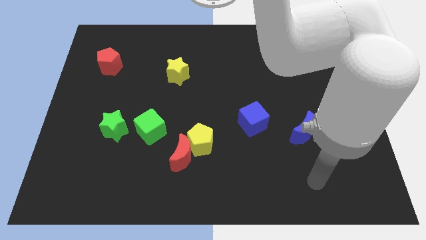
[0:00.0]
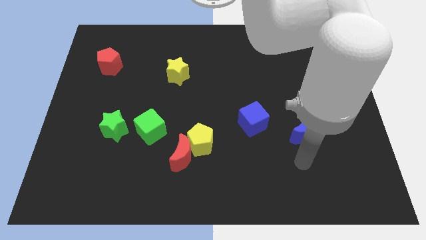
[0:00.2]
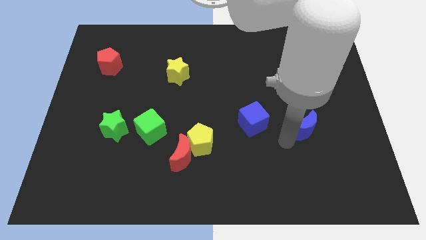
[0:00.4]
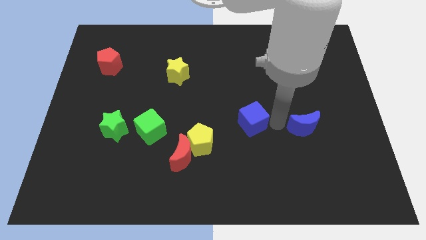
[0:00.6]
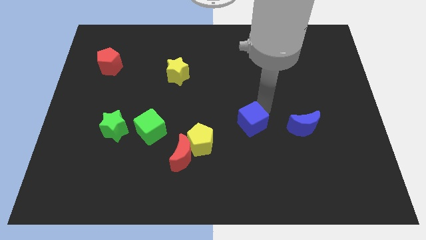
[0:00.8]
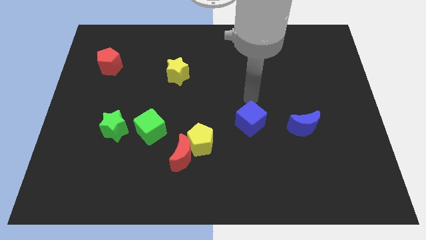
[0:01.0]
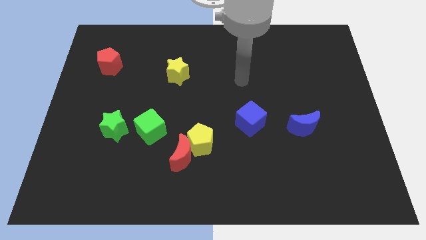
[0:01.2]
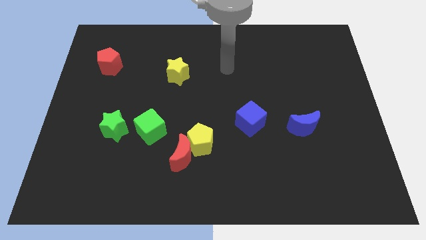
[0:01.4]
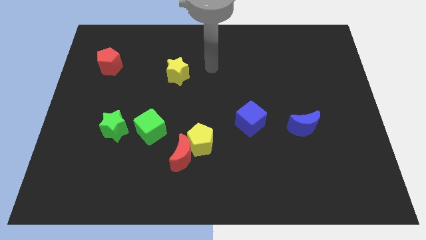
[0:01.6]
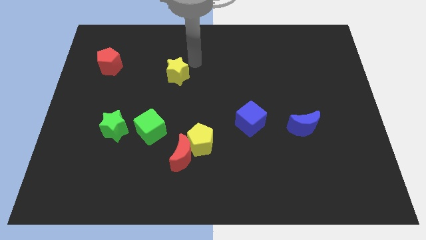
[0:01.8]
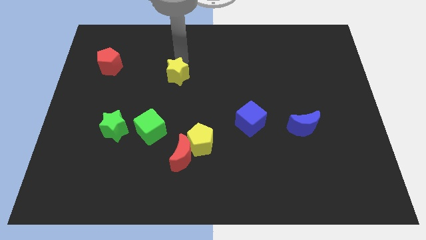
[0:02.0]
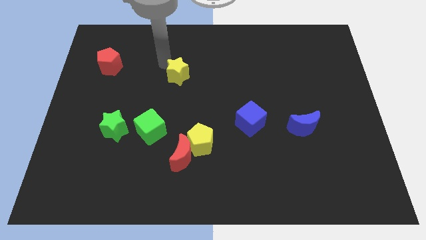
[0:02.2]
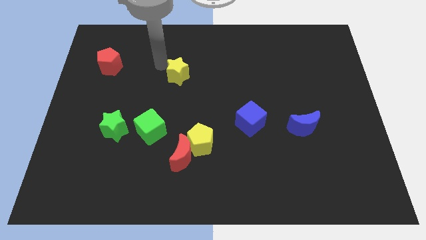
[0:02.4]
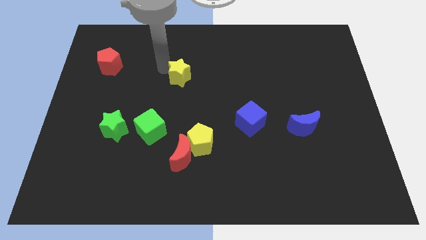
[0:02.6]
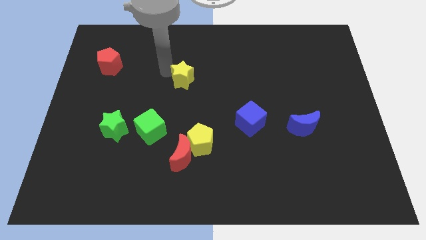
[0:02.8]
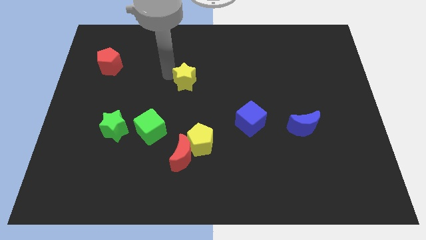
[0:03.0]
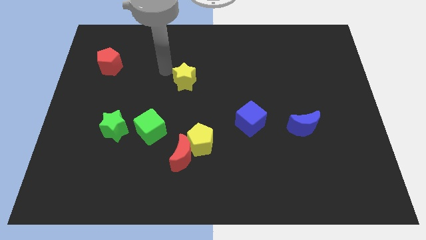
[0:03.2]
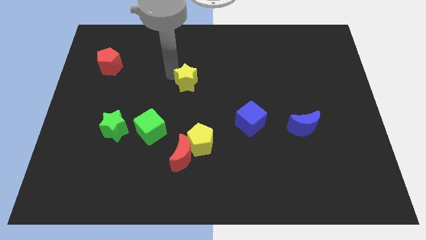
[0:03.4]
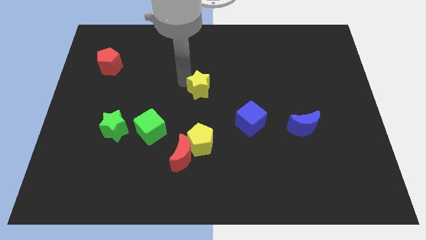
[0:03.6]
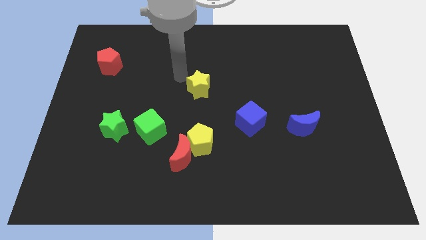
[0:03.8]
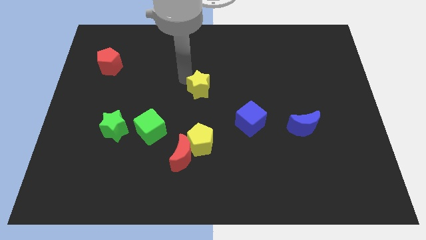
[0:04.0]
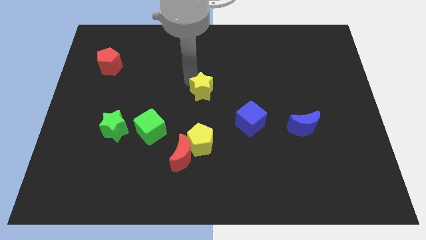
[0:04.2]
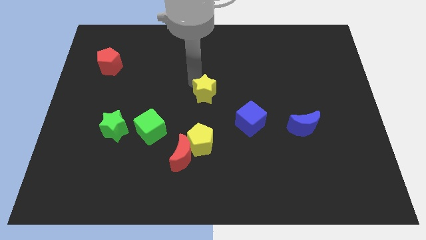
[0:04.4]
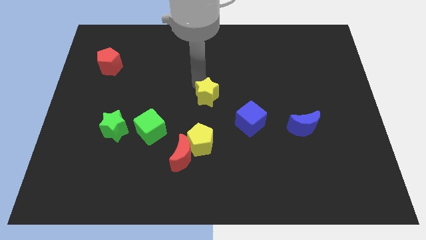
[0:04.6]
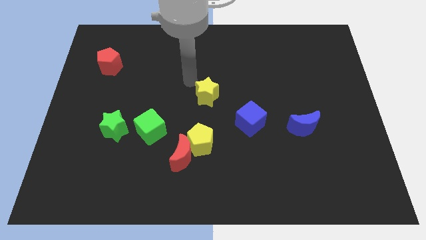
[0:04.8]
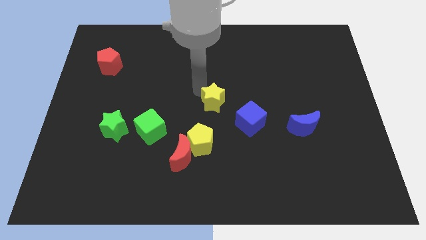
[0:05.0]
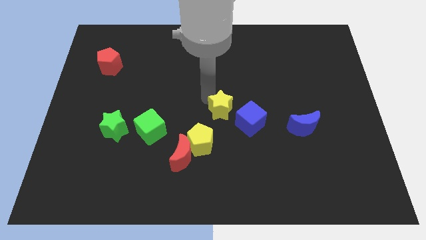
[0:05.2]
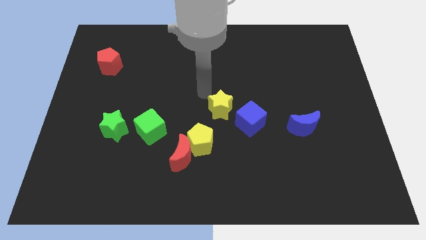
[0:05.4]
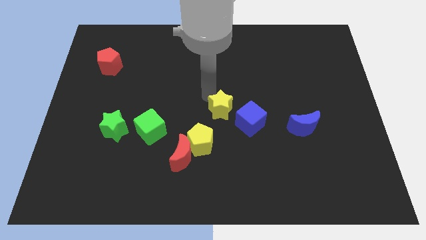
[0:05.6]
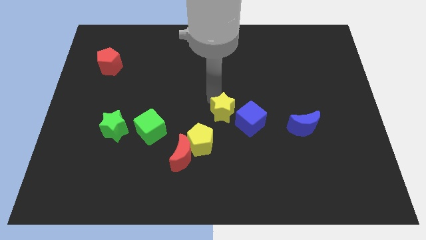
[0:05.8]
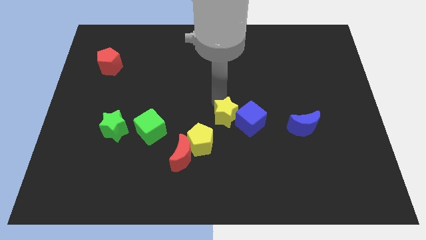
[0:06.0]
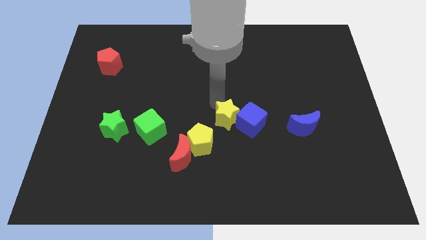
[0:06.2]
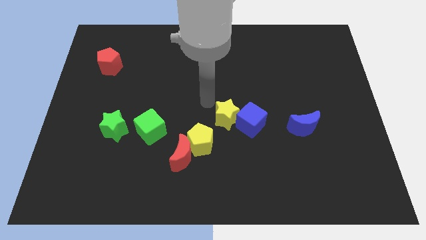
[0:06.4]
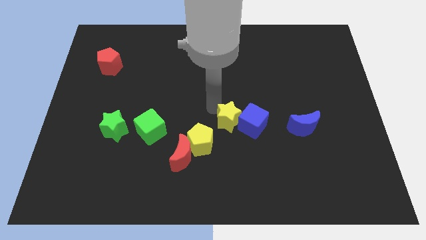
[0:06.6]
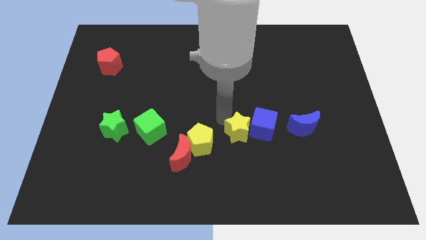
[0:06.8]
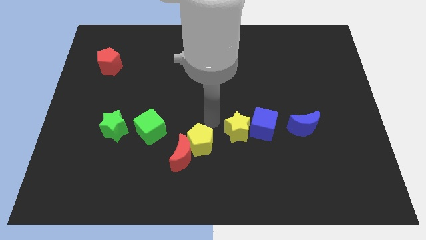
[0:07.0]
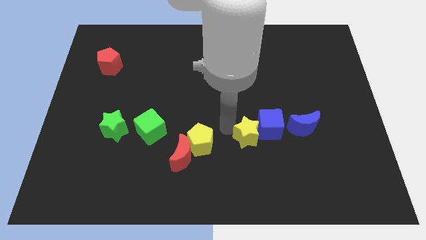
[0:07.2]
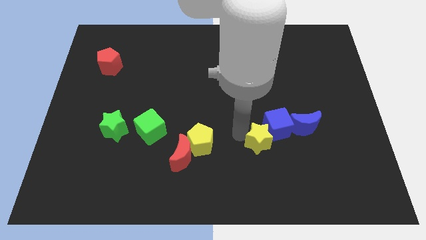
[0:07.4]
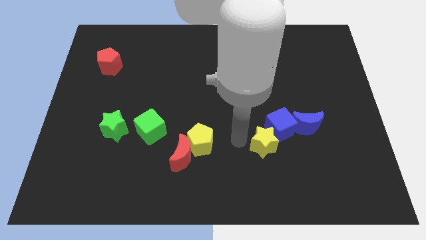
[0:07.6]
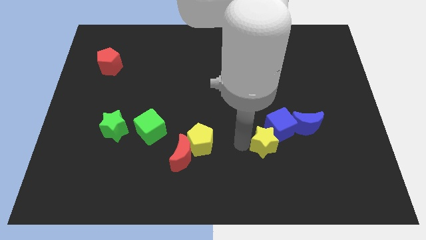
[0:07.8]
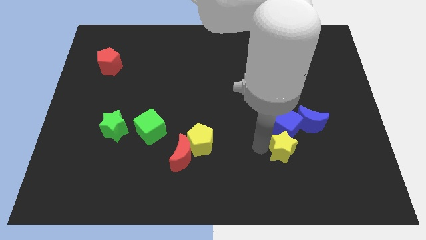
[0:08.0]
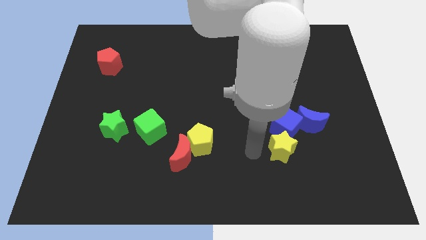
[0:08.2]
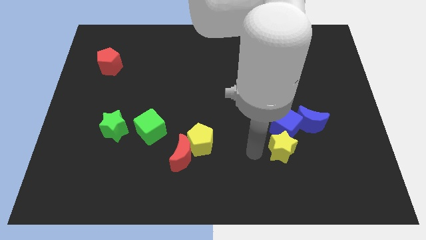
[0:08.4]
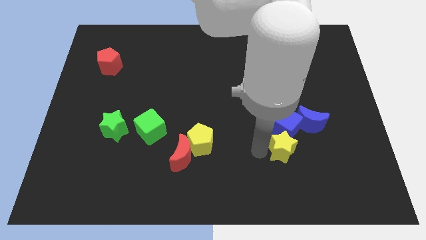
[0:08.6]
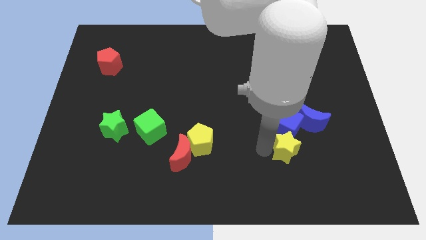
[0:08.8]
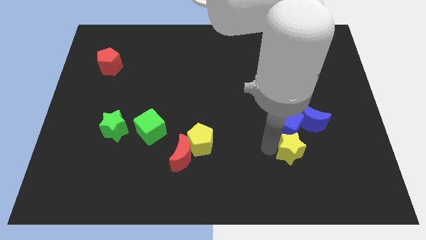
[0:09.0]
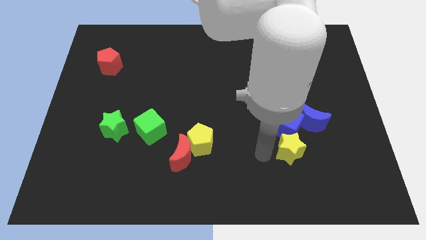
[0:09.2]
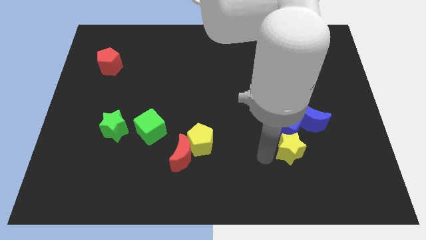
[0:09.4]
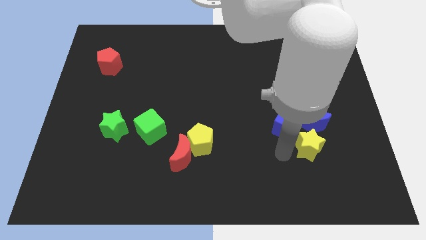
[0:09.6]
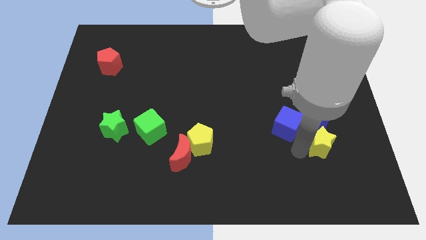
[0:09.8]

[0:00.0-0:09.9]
put the yellow star to the bottom right side of the blue moon

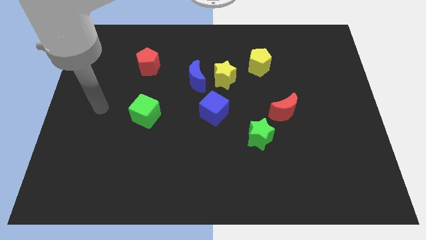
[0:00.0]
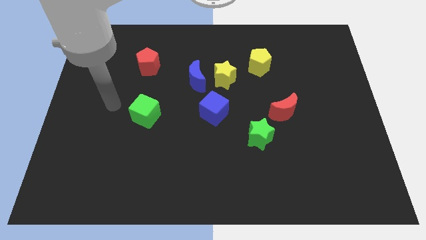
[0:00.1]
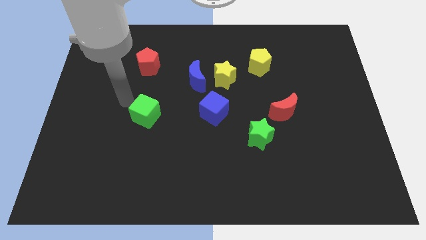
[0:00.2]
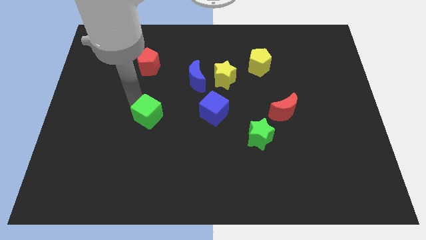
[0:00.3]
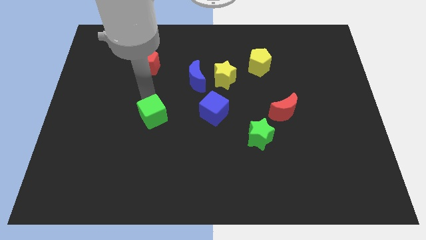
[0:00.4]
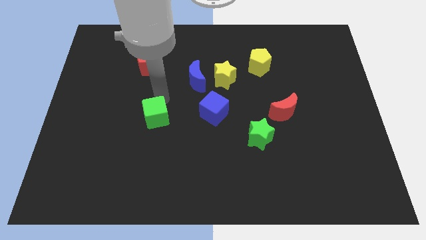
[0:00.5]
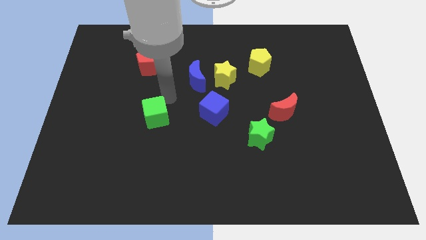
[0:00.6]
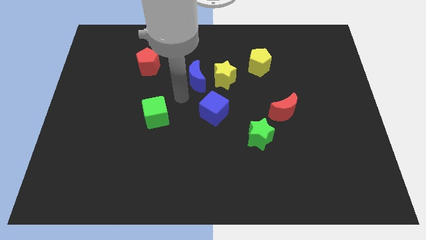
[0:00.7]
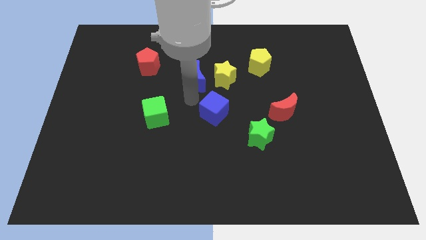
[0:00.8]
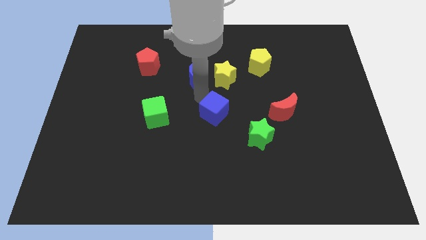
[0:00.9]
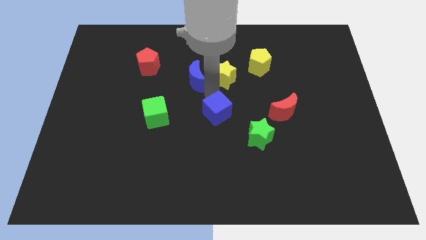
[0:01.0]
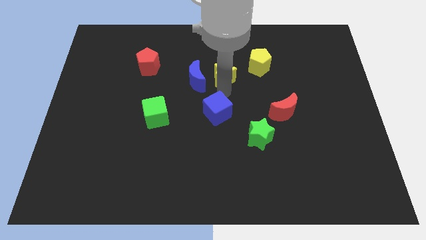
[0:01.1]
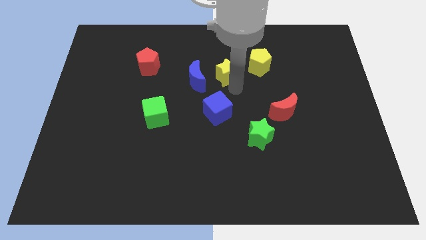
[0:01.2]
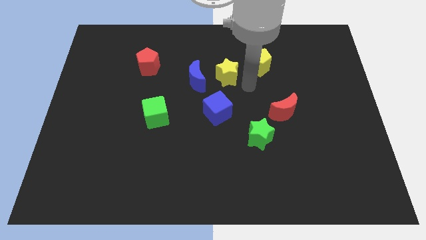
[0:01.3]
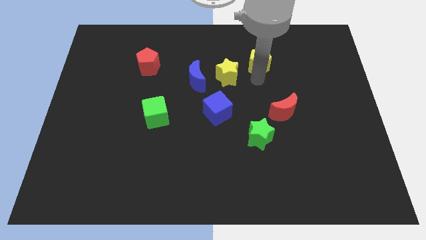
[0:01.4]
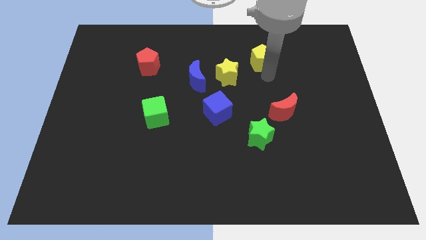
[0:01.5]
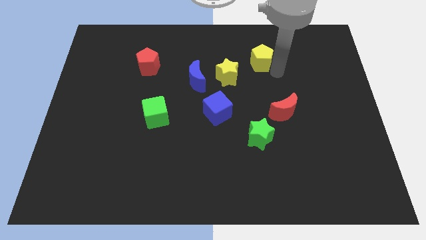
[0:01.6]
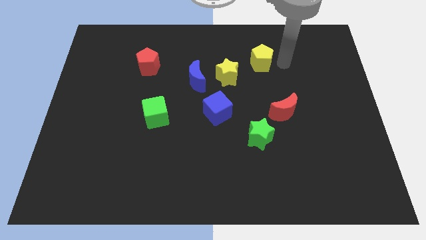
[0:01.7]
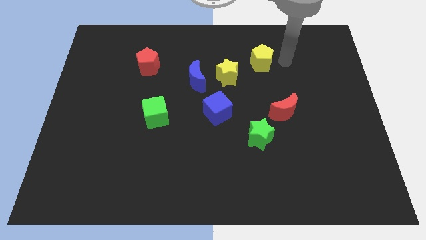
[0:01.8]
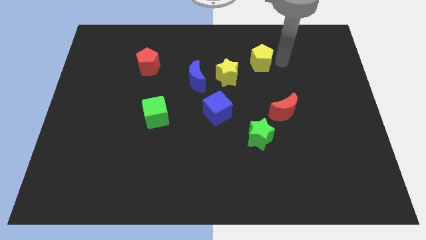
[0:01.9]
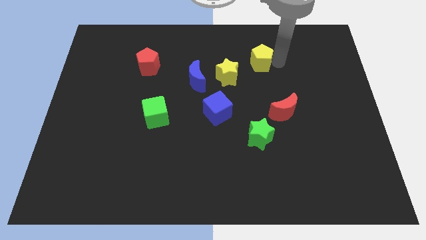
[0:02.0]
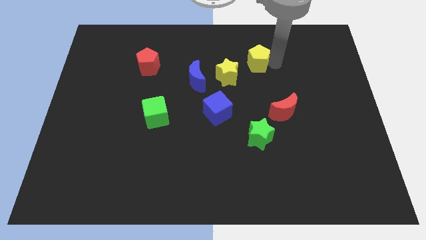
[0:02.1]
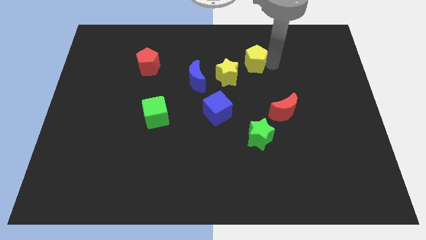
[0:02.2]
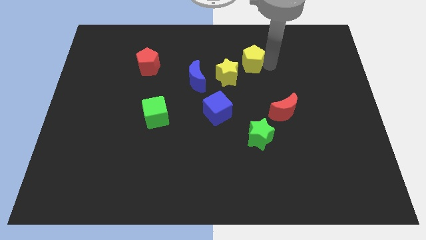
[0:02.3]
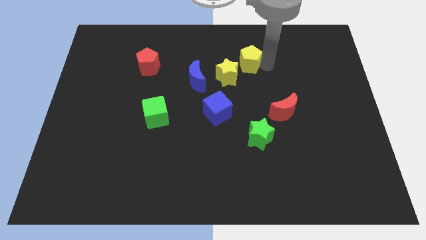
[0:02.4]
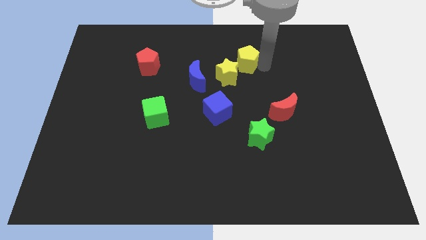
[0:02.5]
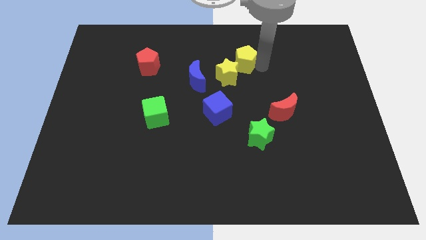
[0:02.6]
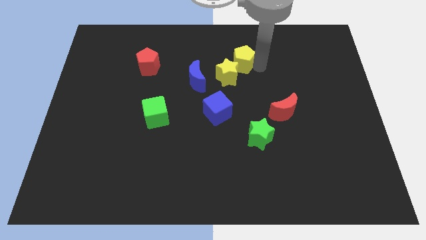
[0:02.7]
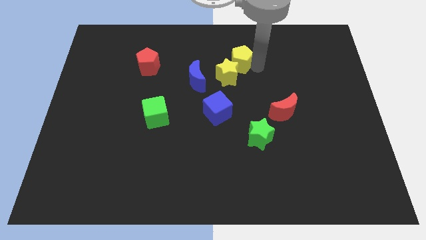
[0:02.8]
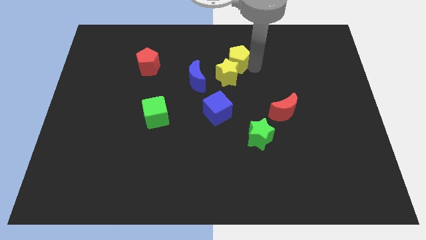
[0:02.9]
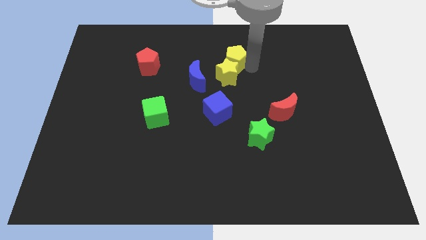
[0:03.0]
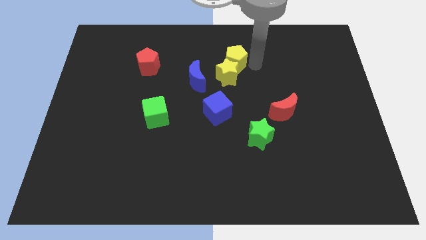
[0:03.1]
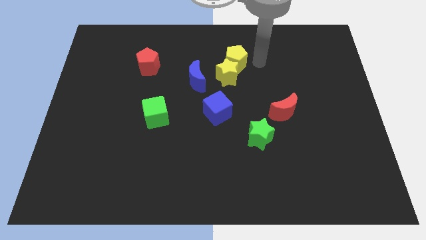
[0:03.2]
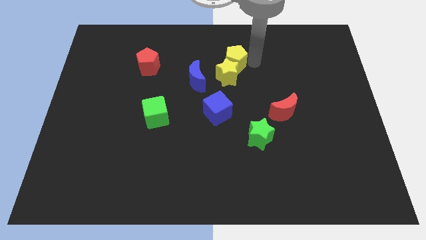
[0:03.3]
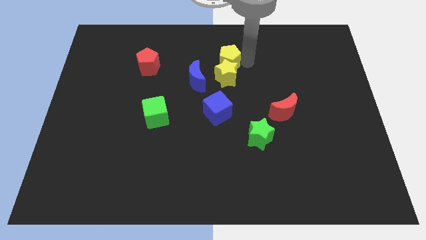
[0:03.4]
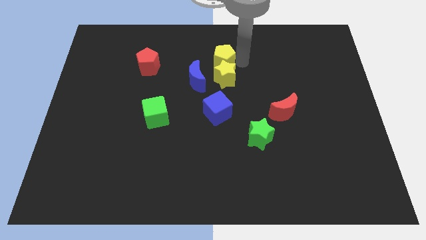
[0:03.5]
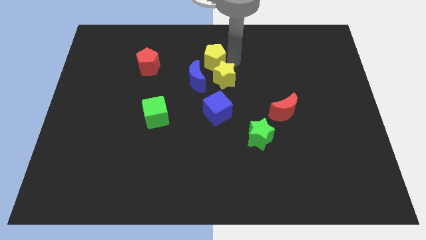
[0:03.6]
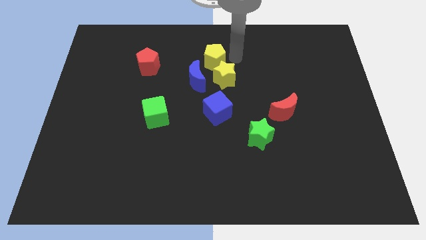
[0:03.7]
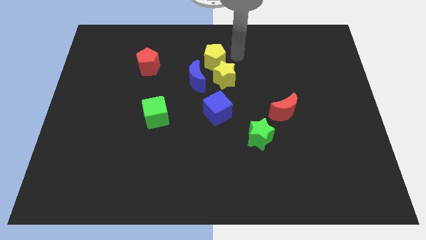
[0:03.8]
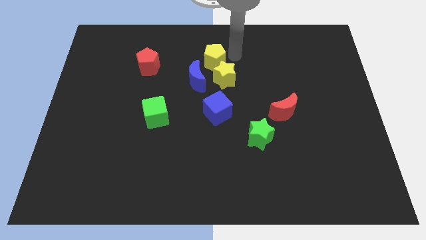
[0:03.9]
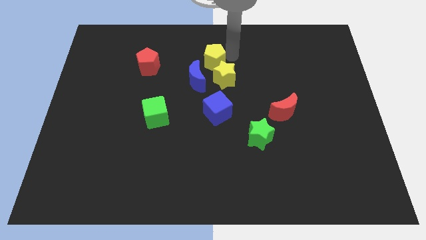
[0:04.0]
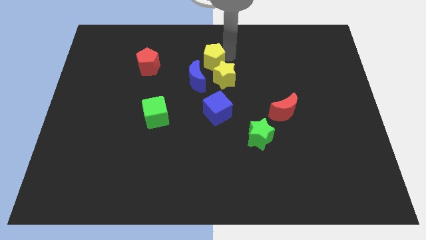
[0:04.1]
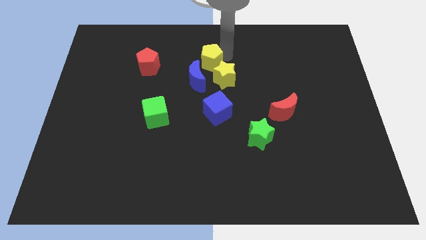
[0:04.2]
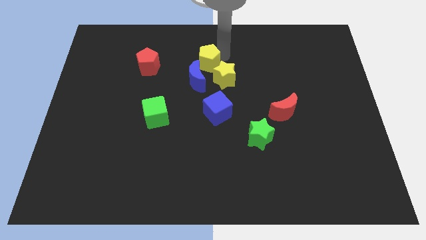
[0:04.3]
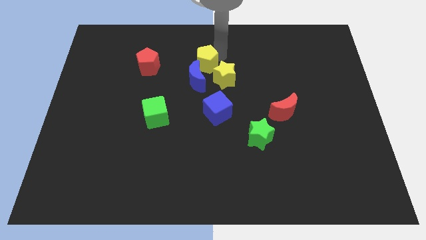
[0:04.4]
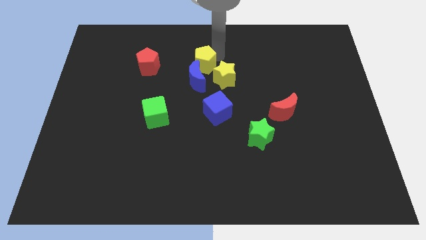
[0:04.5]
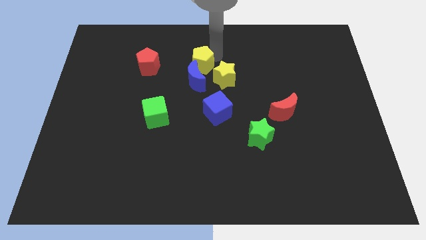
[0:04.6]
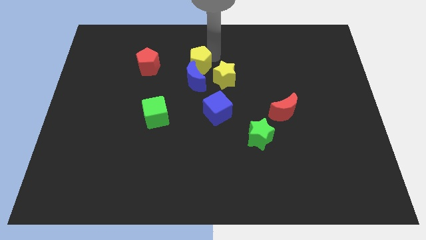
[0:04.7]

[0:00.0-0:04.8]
move the yellow pentagon to the top left of the blue moon
